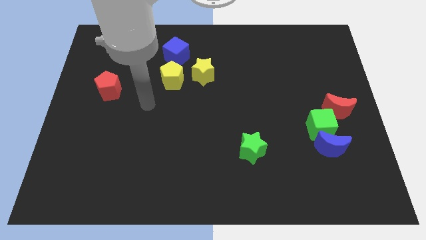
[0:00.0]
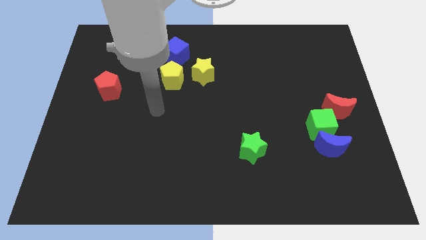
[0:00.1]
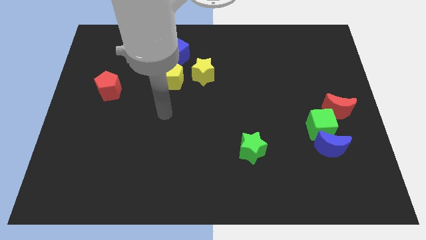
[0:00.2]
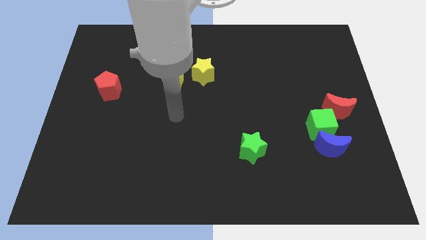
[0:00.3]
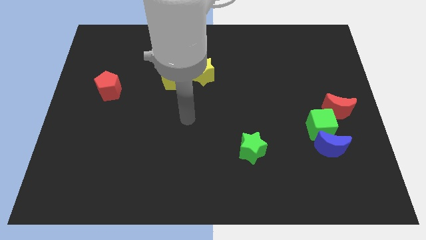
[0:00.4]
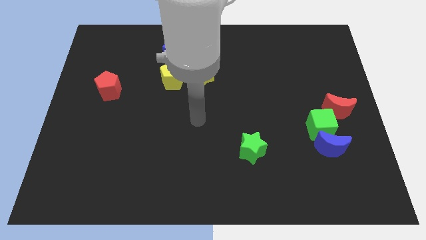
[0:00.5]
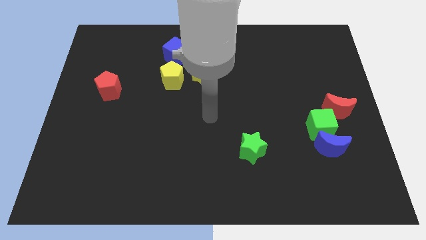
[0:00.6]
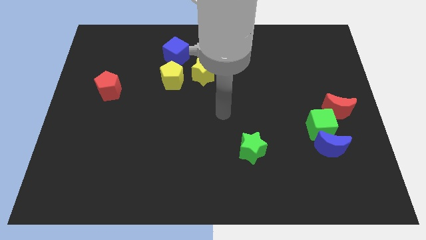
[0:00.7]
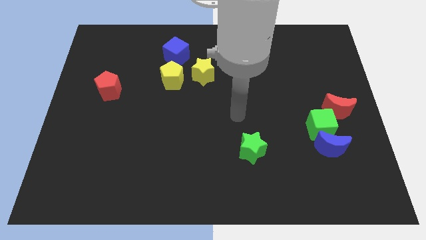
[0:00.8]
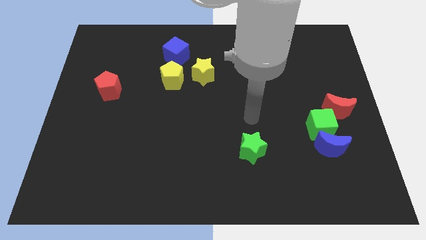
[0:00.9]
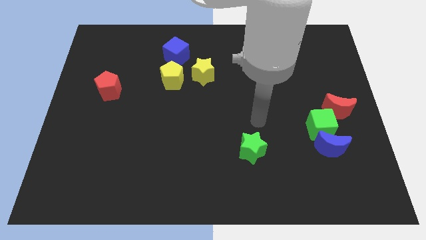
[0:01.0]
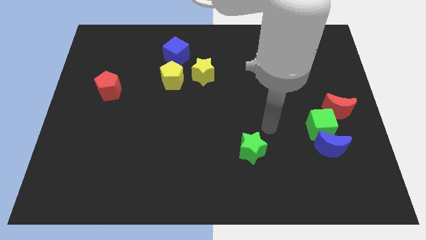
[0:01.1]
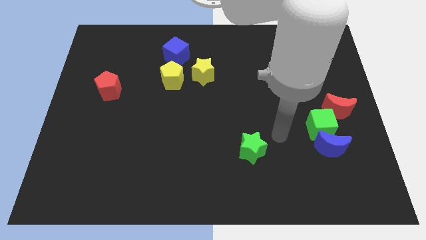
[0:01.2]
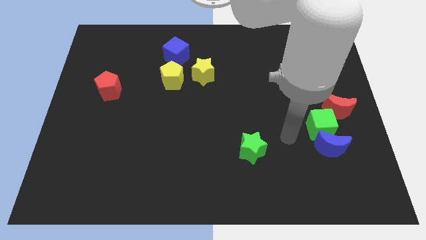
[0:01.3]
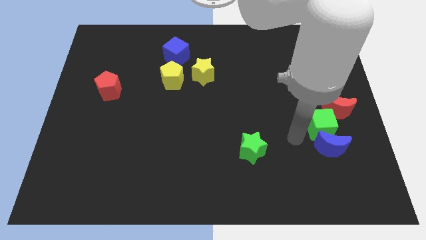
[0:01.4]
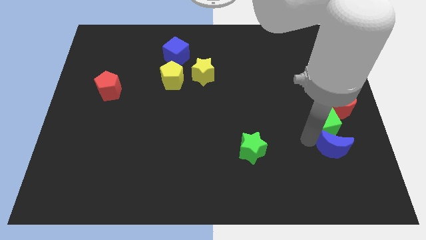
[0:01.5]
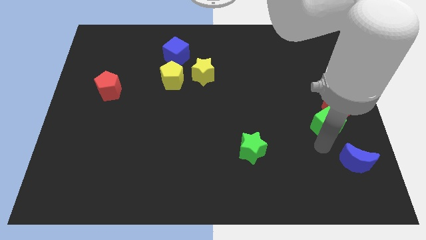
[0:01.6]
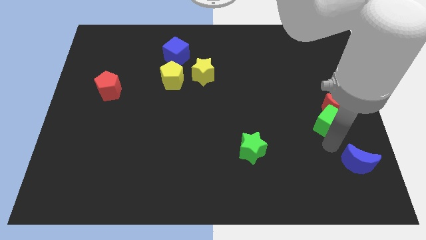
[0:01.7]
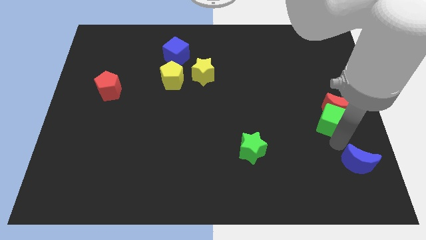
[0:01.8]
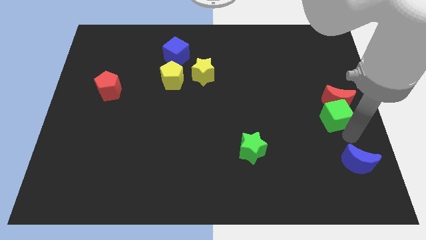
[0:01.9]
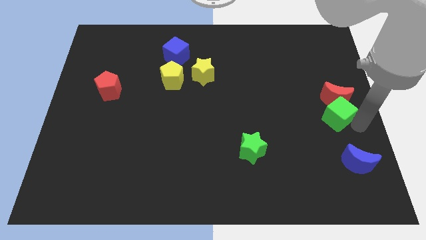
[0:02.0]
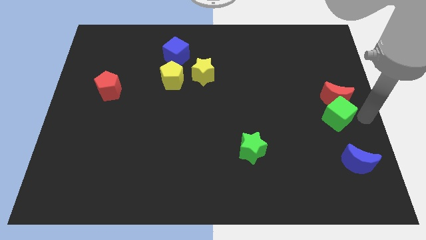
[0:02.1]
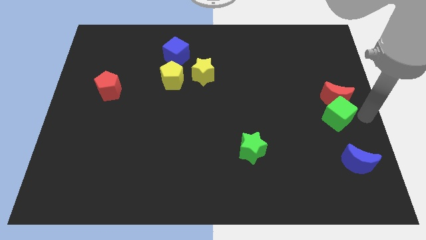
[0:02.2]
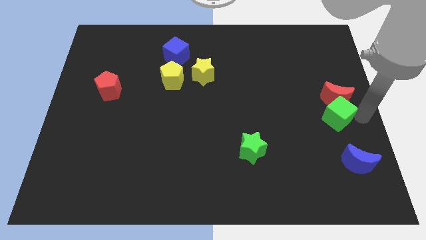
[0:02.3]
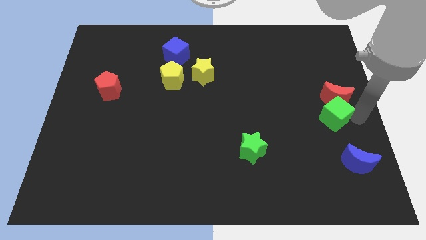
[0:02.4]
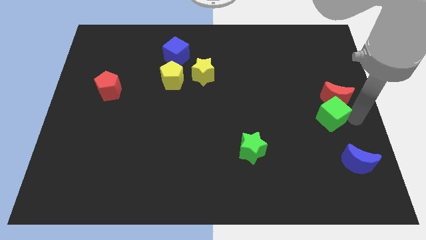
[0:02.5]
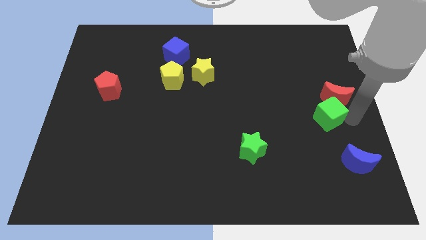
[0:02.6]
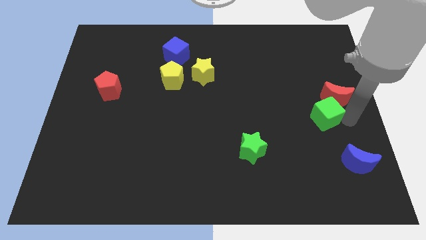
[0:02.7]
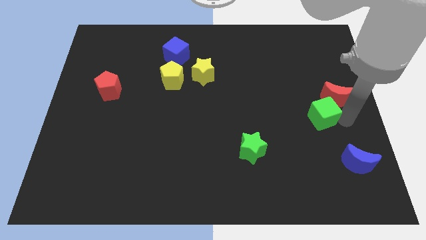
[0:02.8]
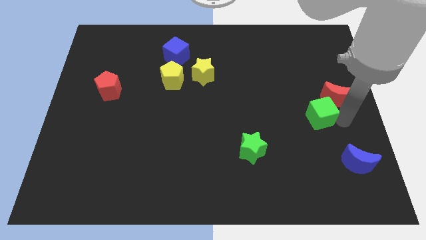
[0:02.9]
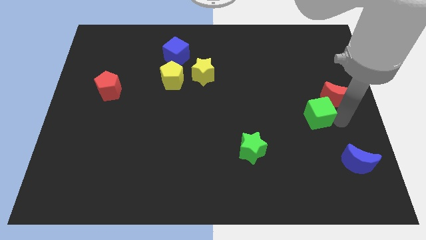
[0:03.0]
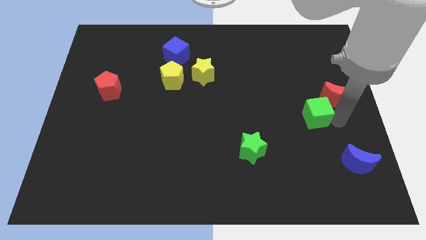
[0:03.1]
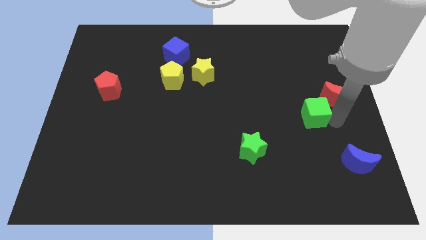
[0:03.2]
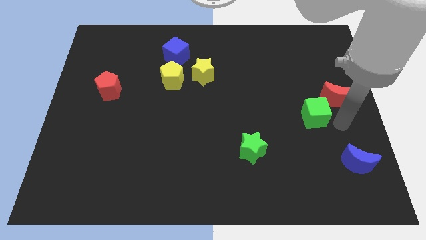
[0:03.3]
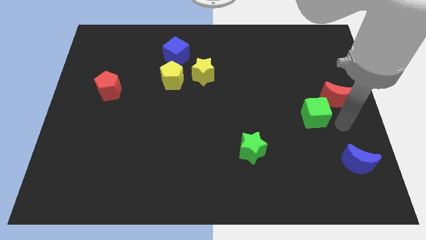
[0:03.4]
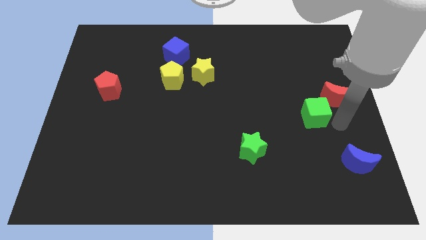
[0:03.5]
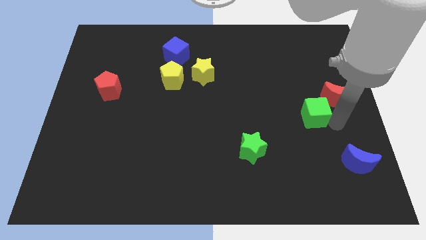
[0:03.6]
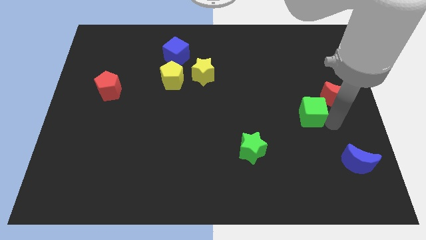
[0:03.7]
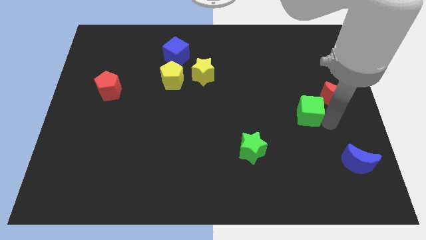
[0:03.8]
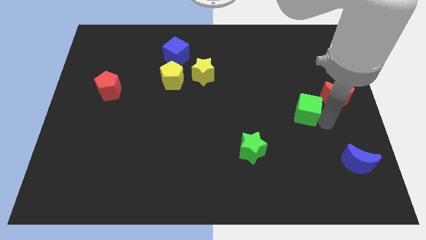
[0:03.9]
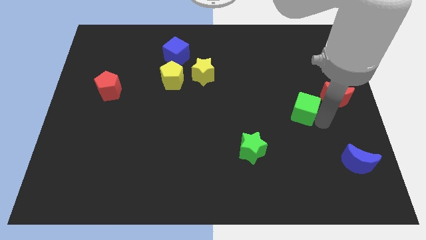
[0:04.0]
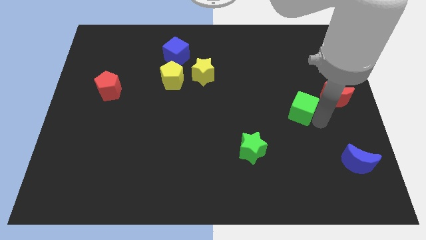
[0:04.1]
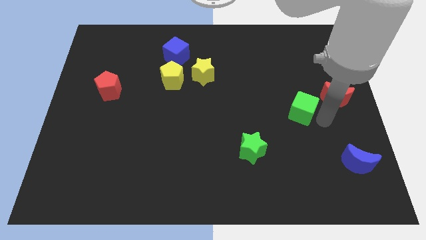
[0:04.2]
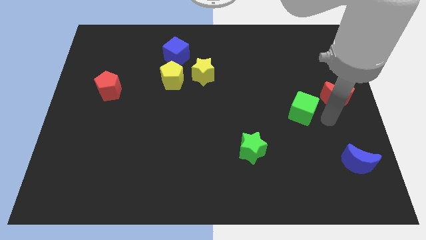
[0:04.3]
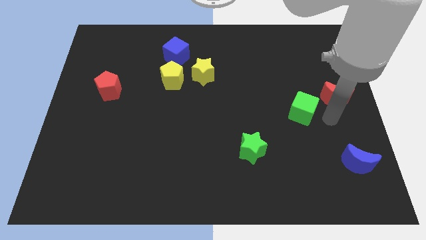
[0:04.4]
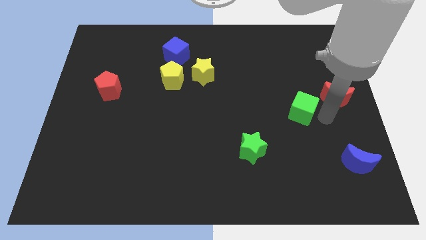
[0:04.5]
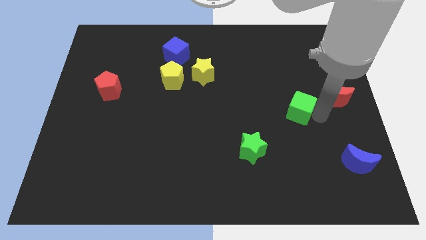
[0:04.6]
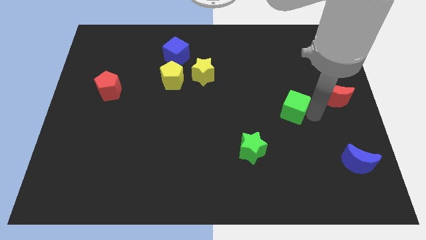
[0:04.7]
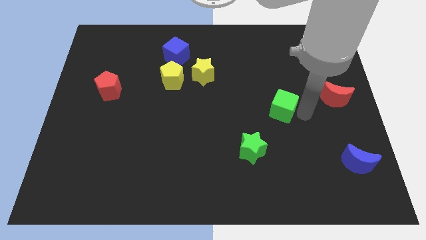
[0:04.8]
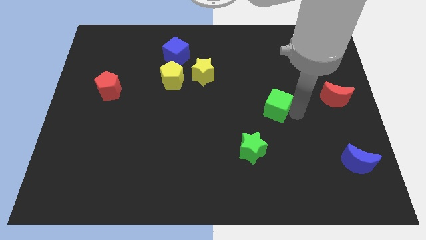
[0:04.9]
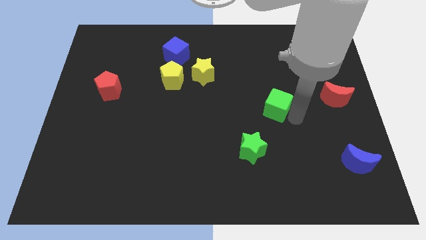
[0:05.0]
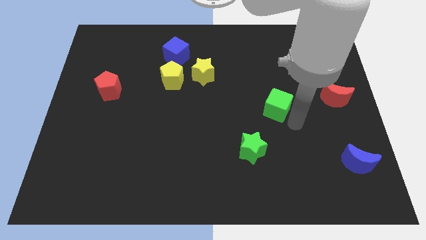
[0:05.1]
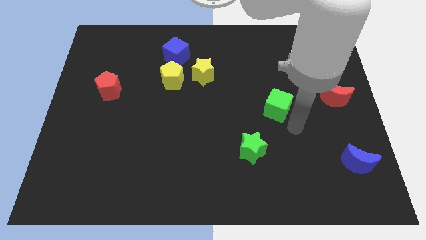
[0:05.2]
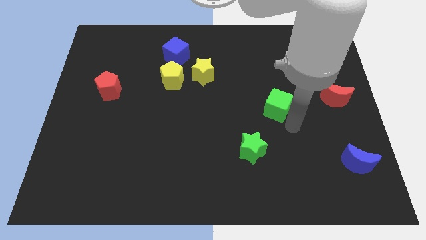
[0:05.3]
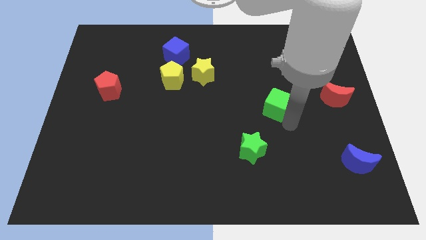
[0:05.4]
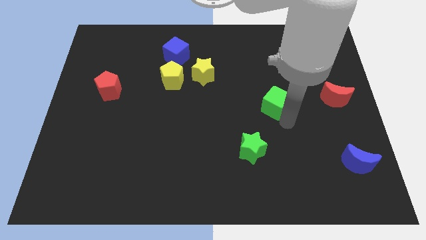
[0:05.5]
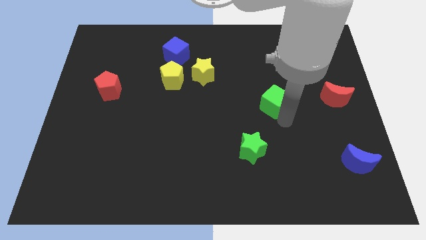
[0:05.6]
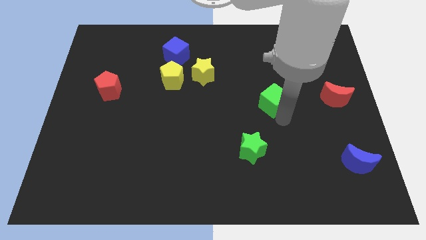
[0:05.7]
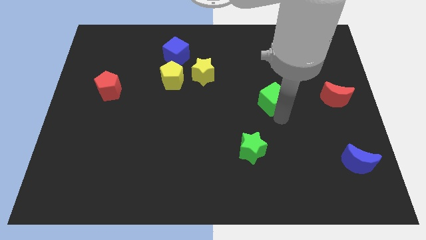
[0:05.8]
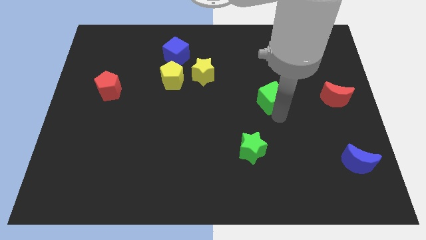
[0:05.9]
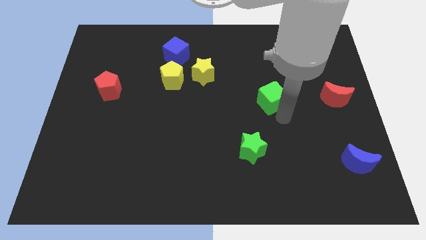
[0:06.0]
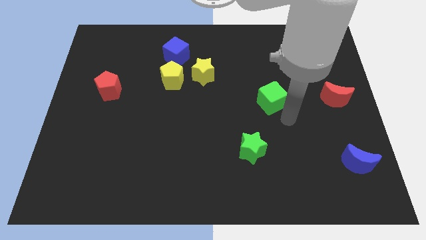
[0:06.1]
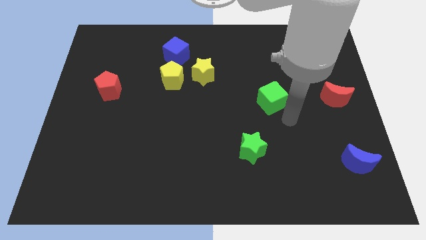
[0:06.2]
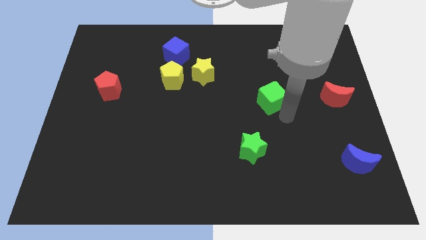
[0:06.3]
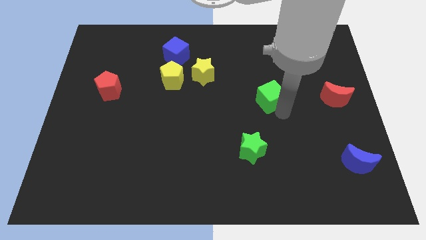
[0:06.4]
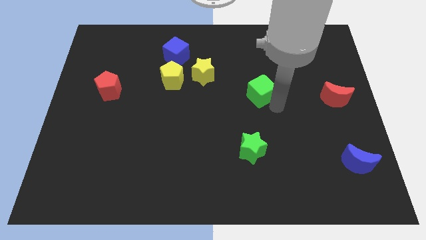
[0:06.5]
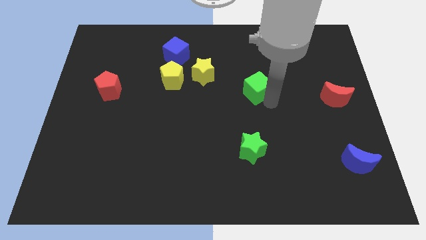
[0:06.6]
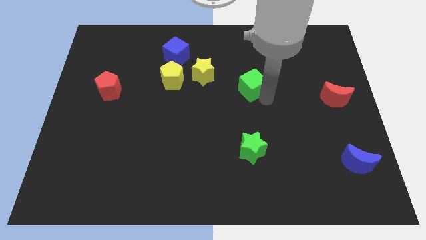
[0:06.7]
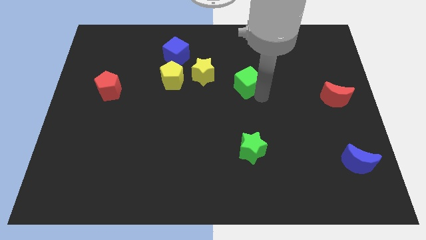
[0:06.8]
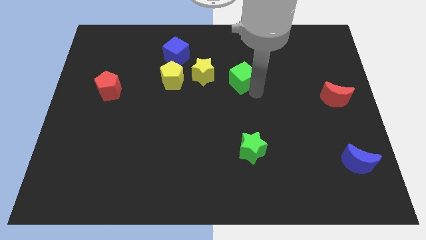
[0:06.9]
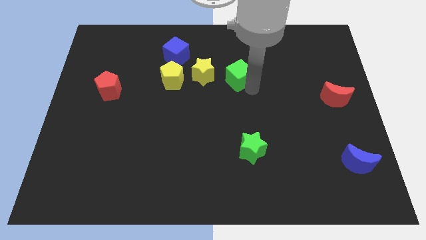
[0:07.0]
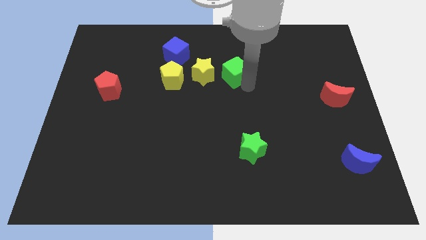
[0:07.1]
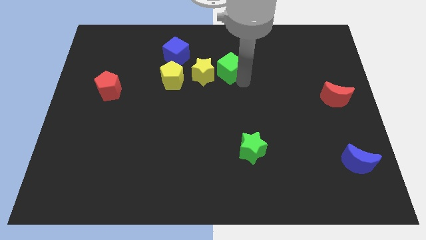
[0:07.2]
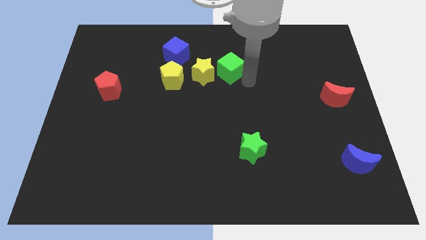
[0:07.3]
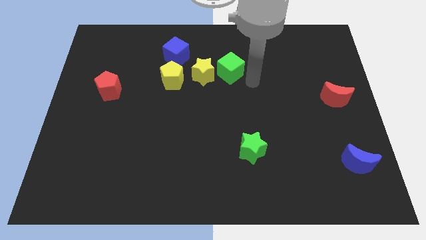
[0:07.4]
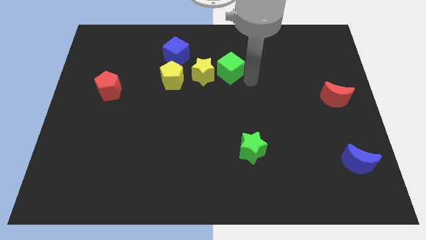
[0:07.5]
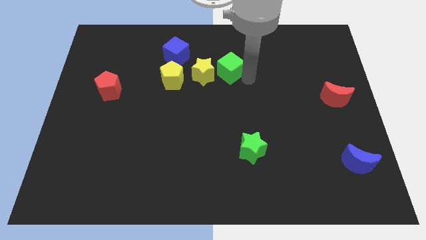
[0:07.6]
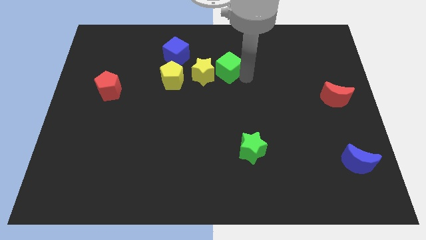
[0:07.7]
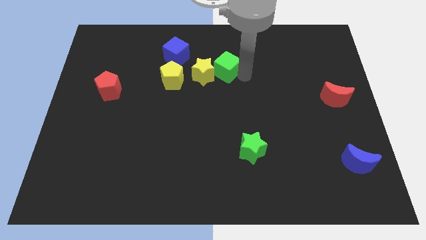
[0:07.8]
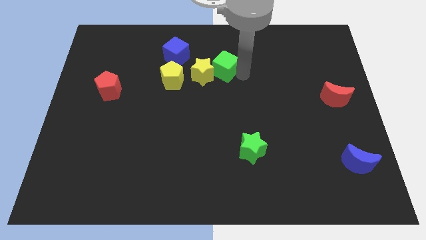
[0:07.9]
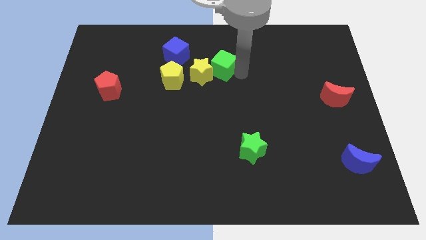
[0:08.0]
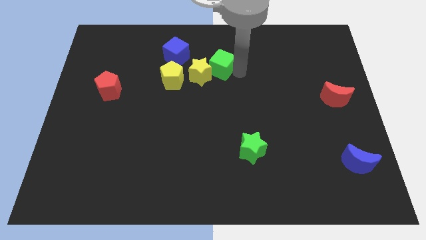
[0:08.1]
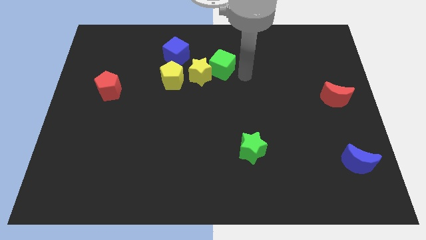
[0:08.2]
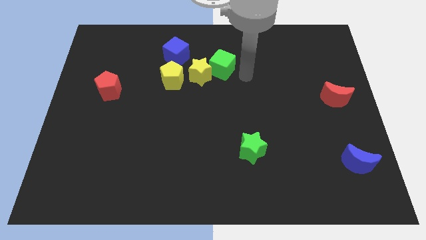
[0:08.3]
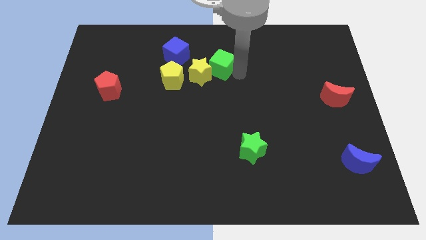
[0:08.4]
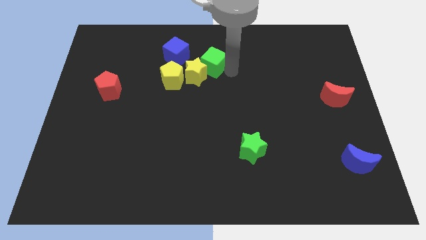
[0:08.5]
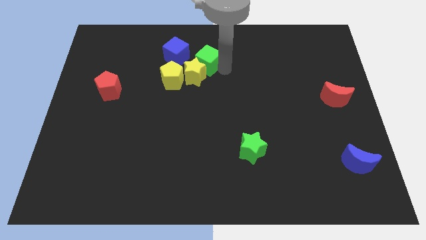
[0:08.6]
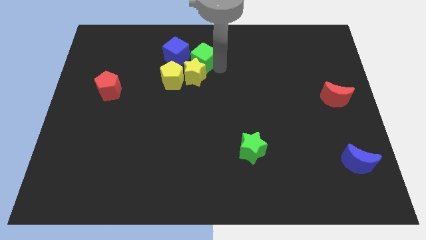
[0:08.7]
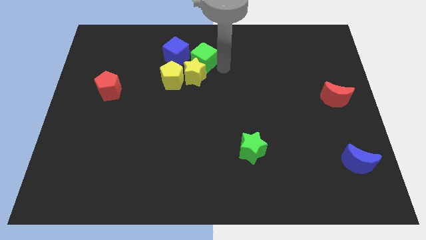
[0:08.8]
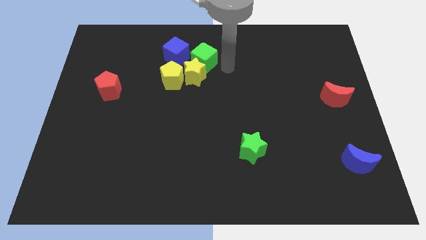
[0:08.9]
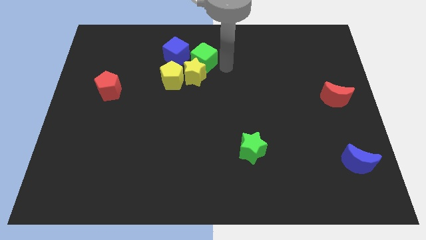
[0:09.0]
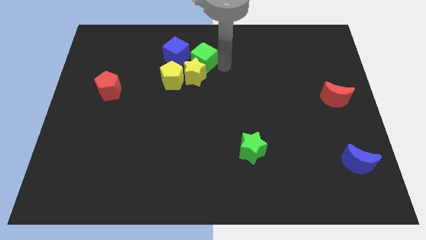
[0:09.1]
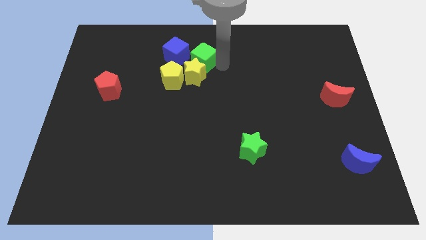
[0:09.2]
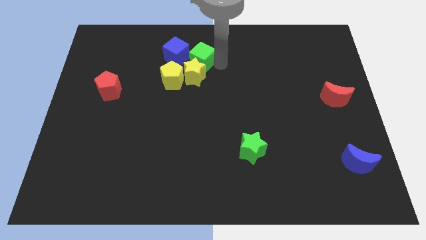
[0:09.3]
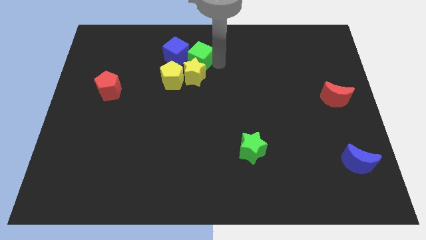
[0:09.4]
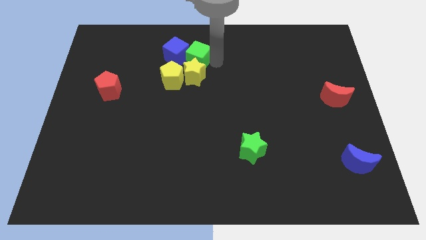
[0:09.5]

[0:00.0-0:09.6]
slide the green cube to the blue cube
